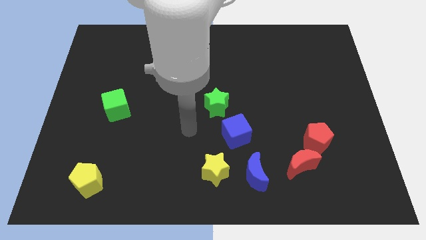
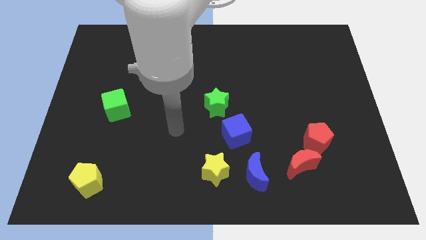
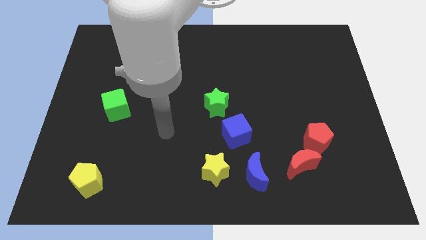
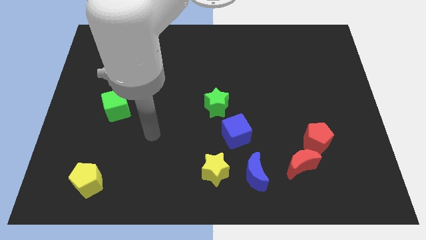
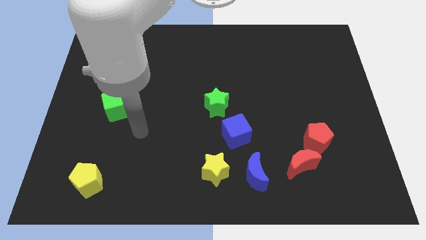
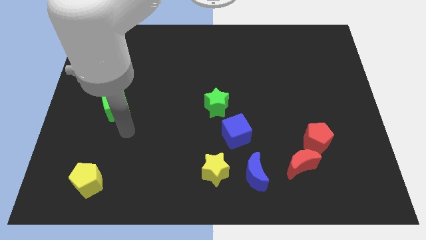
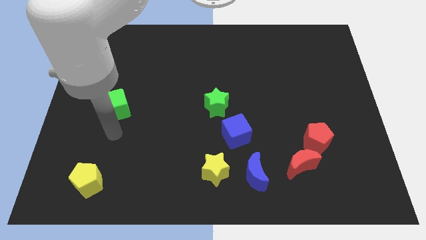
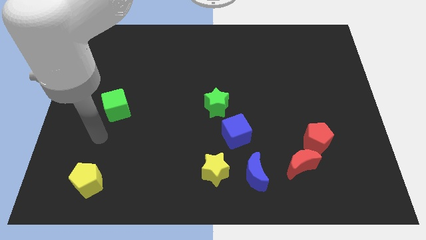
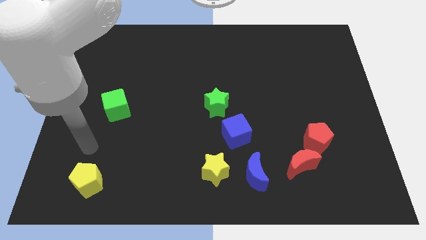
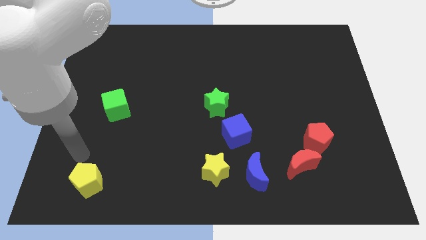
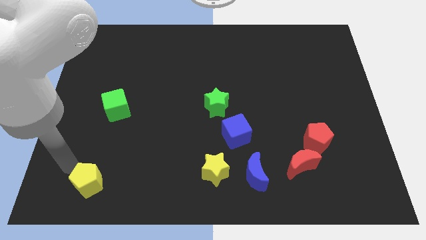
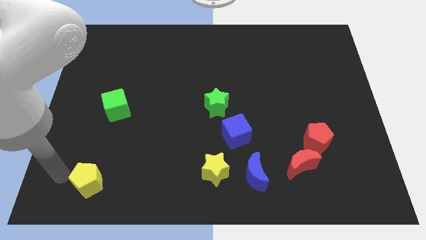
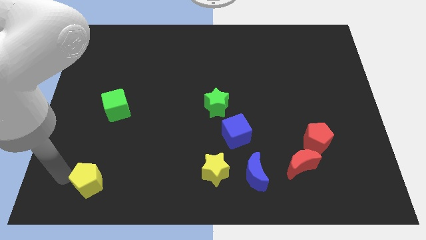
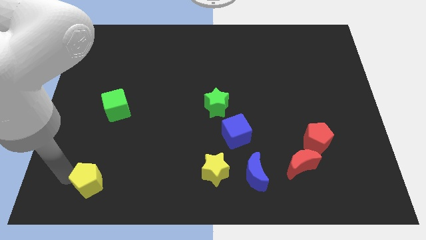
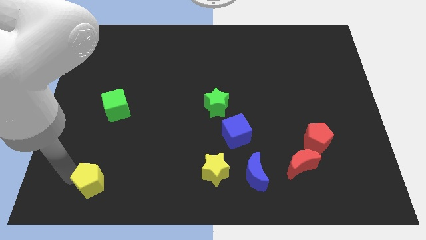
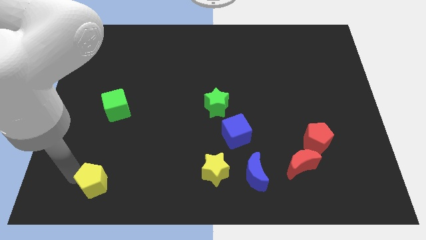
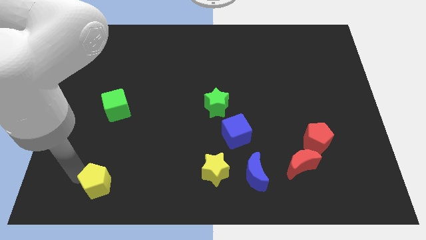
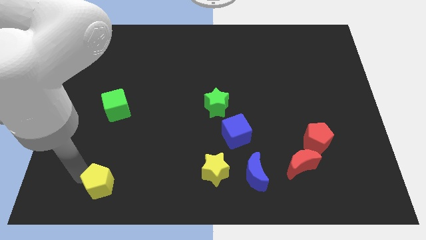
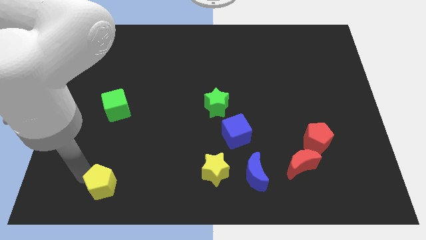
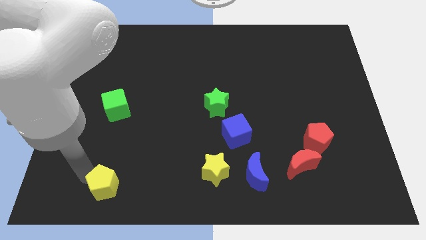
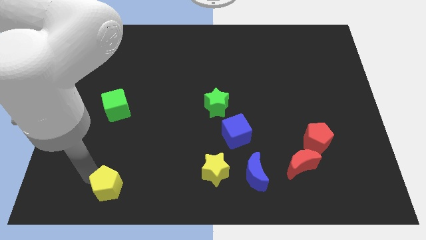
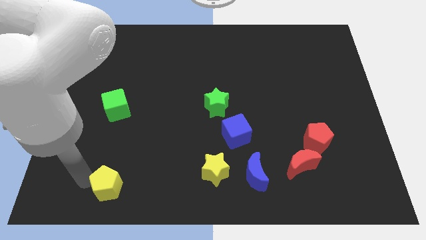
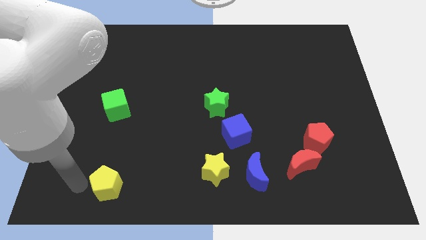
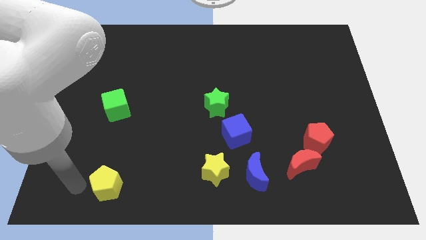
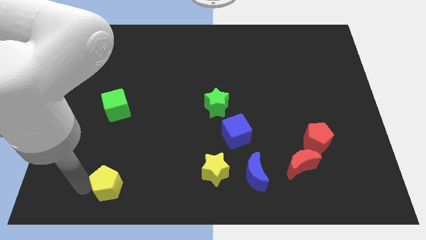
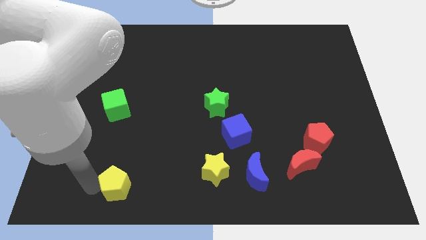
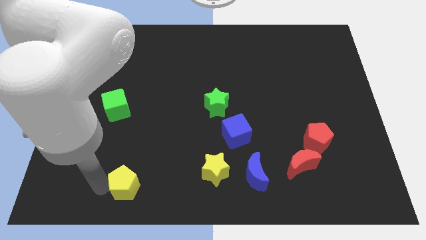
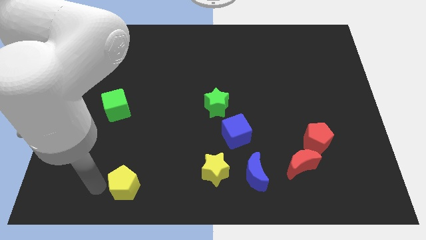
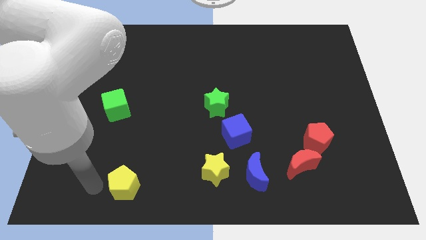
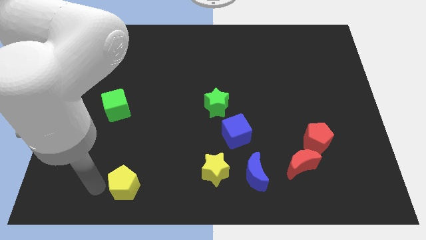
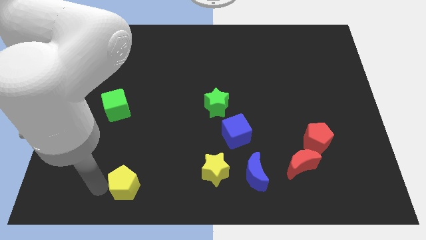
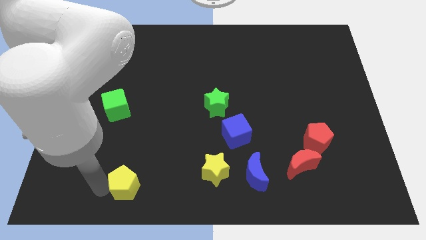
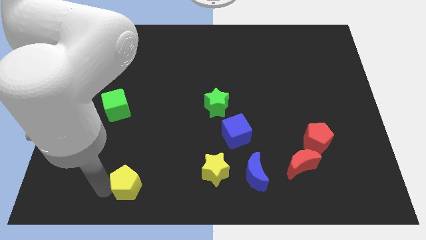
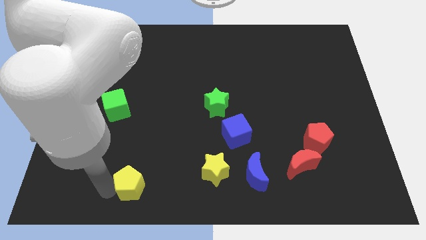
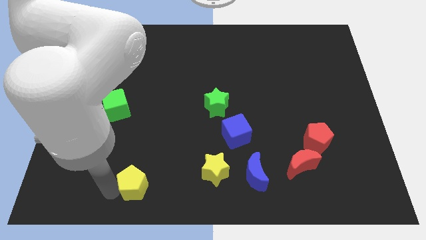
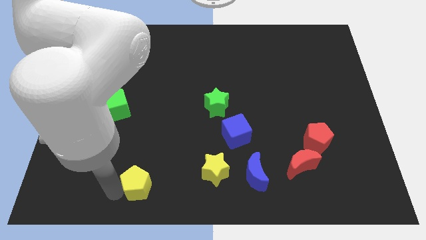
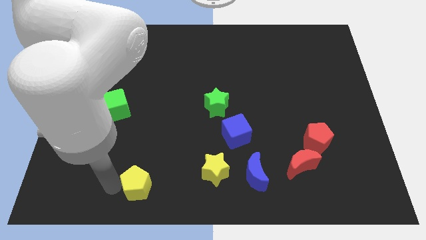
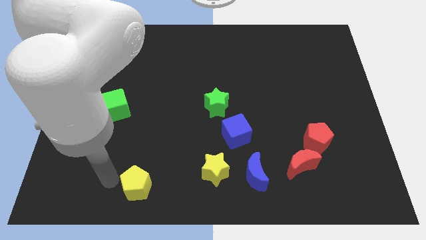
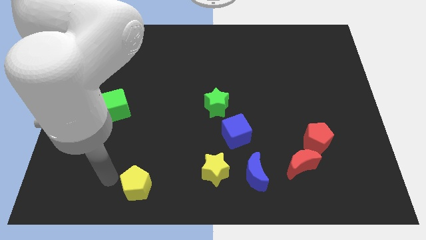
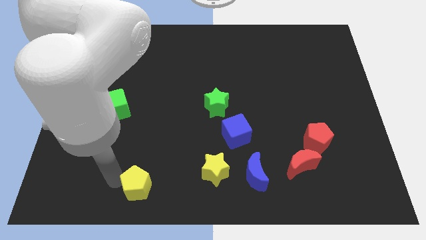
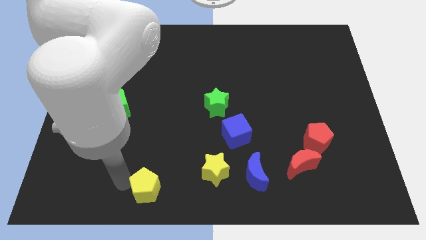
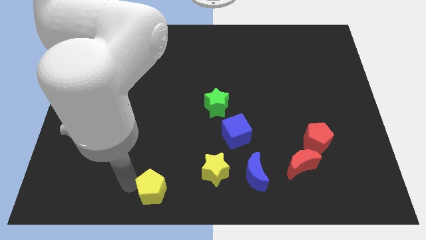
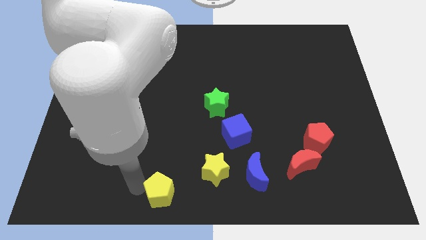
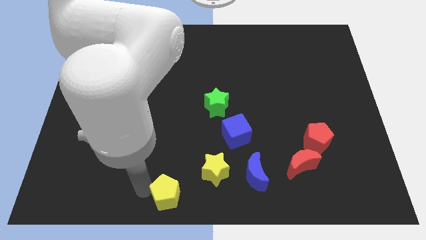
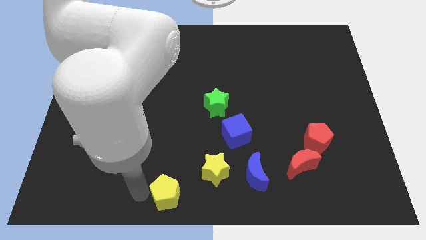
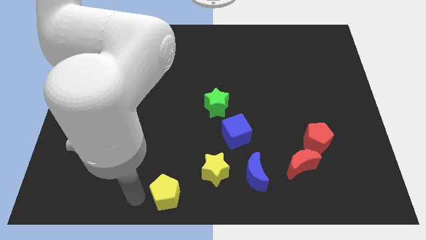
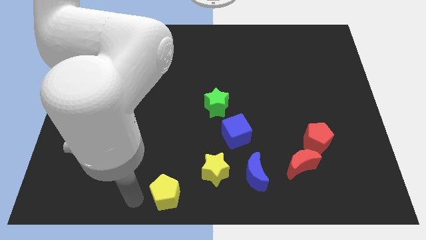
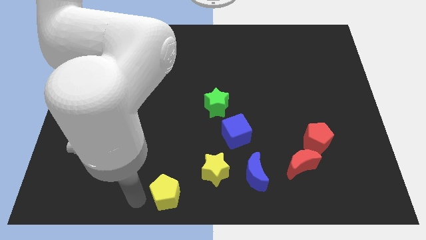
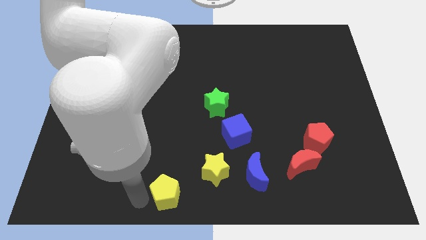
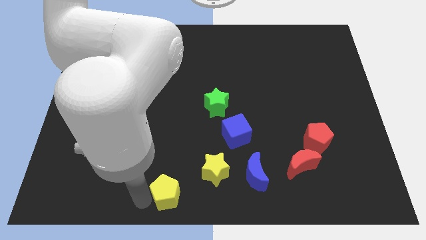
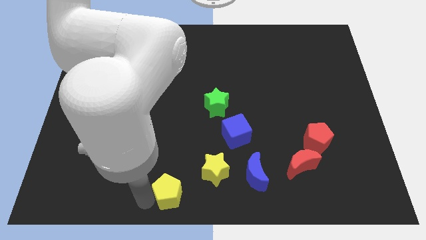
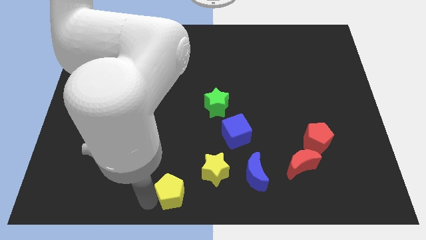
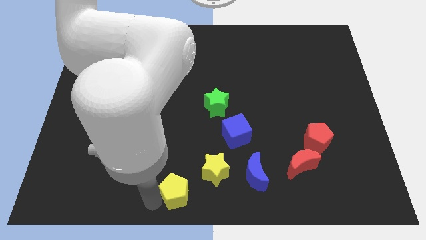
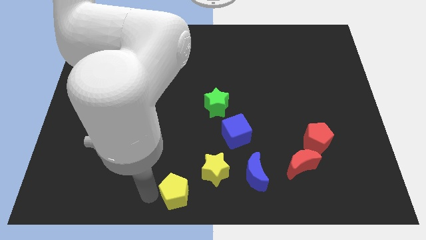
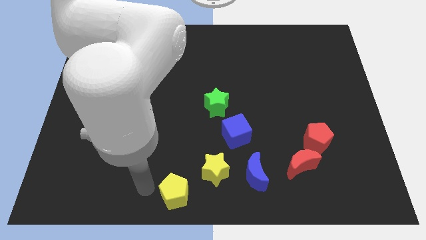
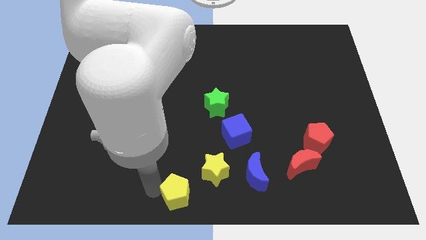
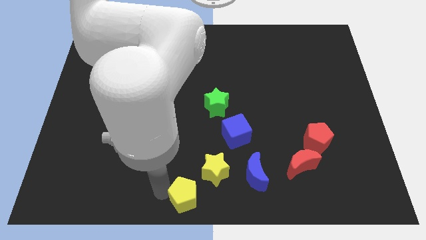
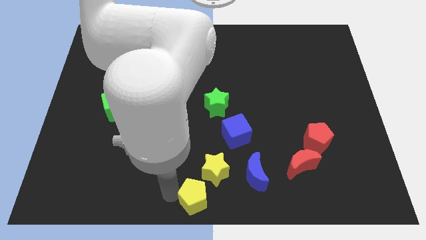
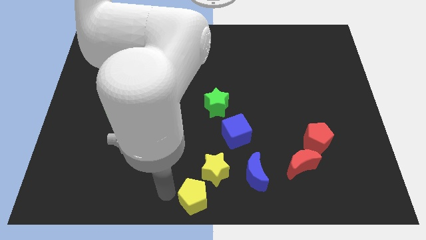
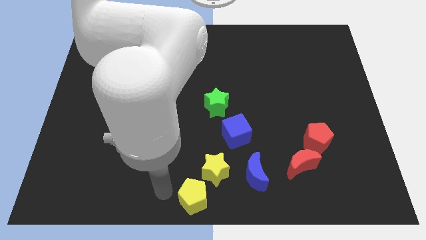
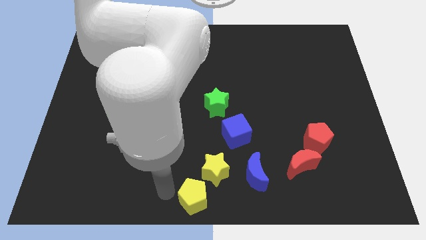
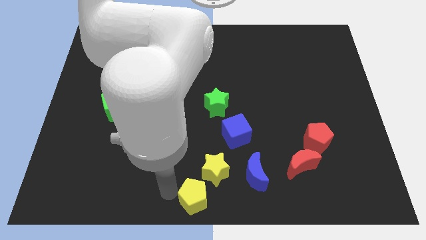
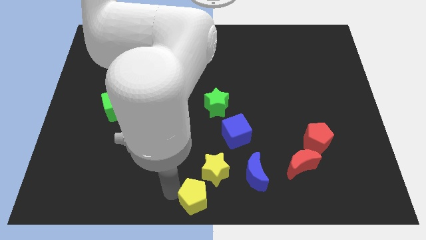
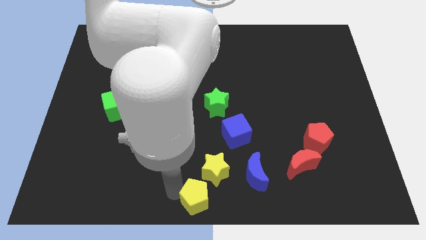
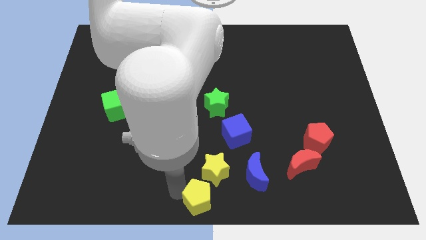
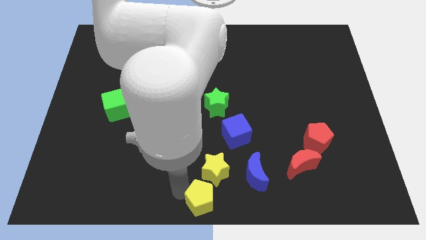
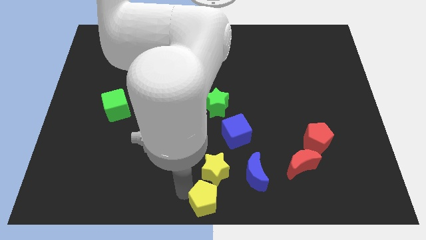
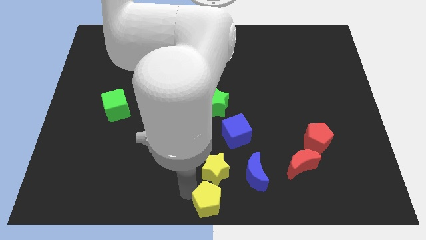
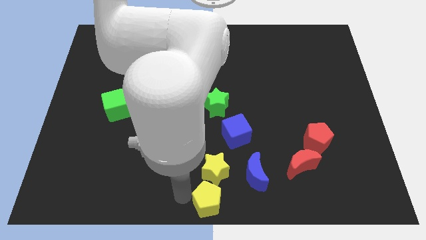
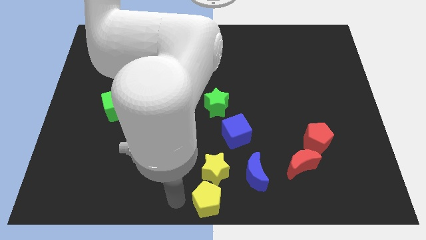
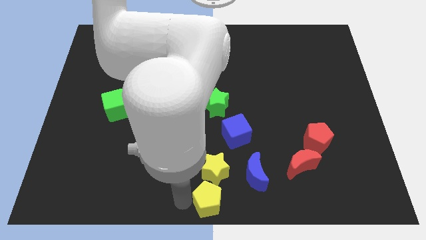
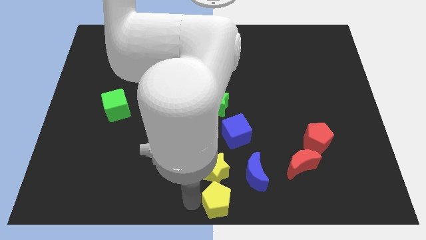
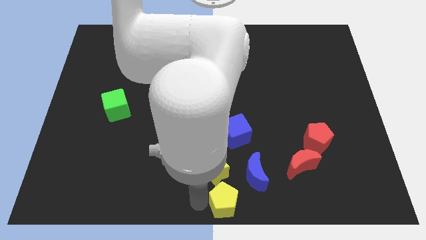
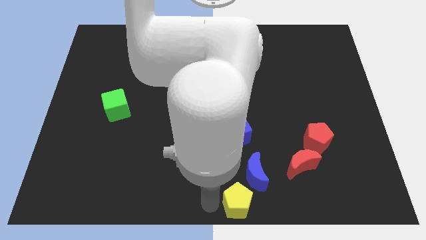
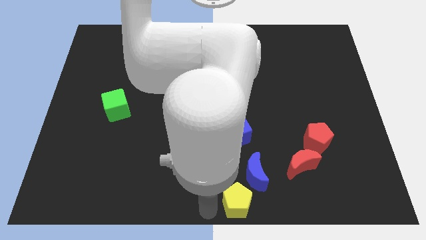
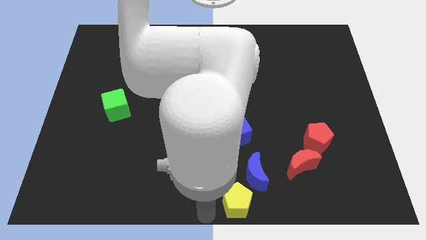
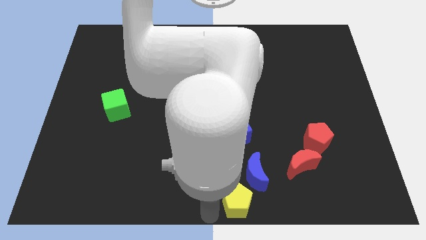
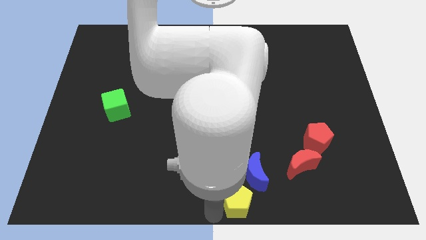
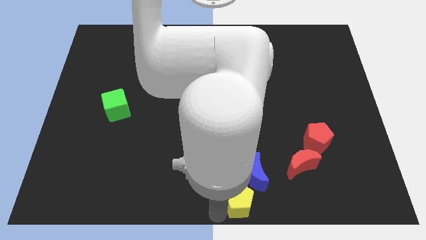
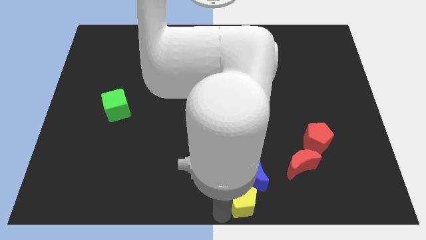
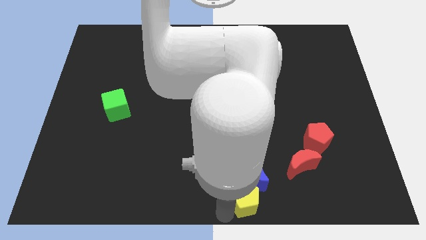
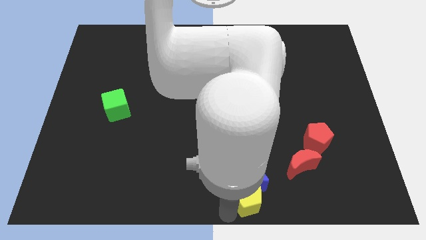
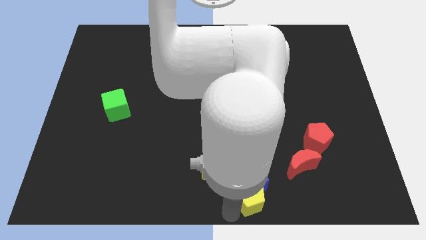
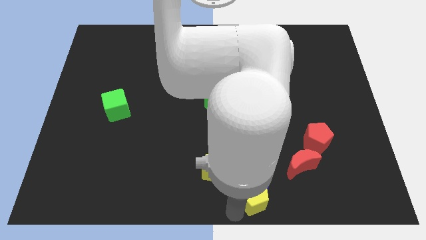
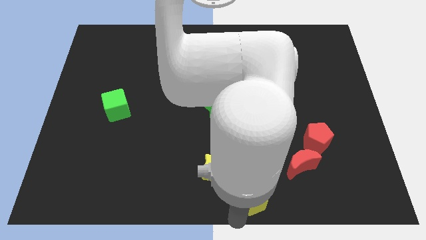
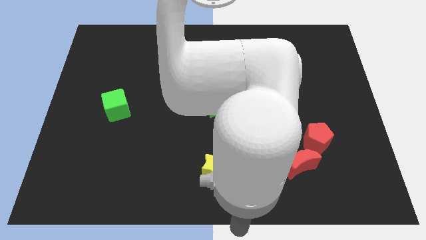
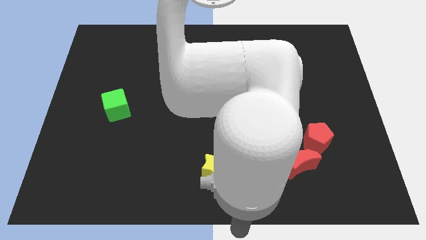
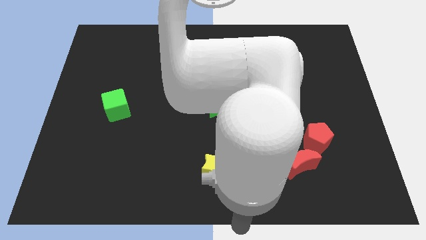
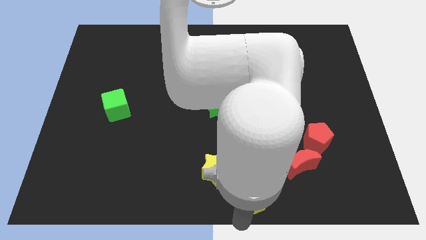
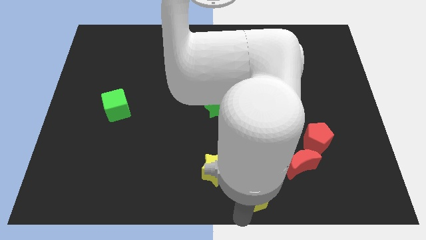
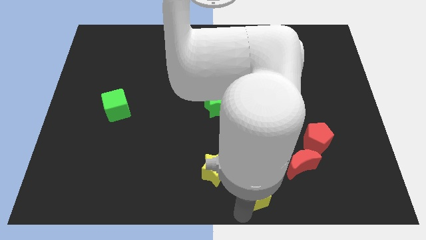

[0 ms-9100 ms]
slide the yellow pentagon just right of the yellow star
